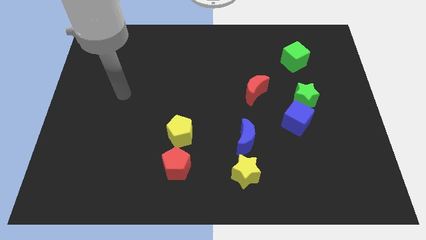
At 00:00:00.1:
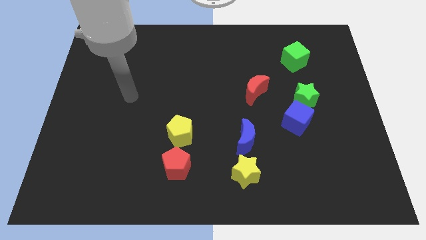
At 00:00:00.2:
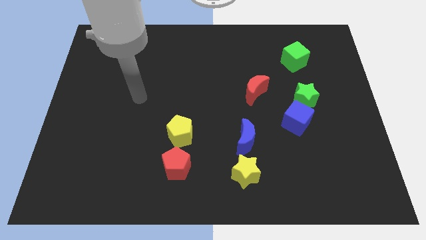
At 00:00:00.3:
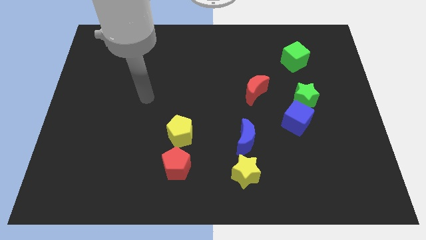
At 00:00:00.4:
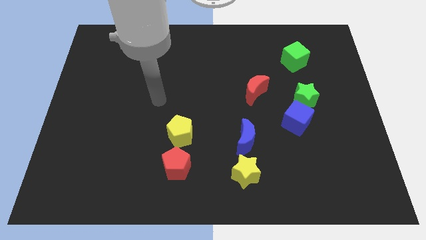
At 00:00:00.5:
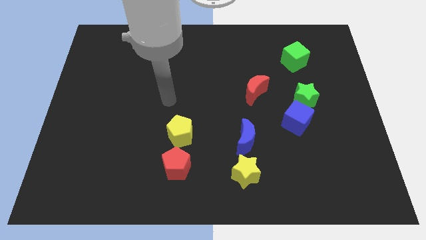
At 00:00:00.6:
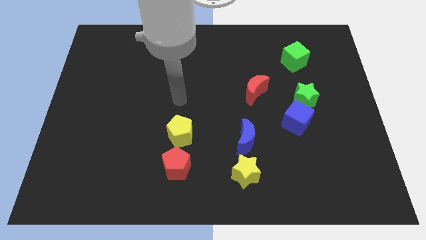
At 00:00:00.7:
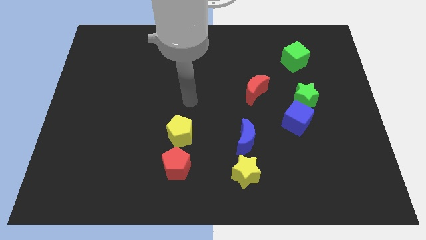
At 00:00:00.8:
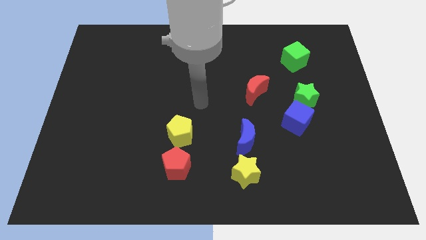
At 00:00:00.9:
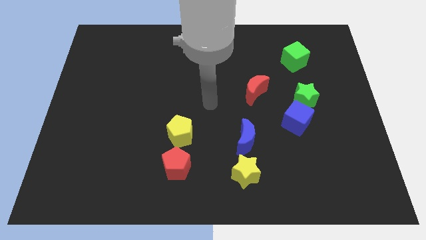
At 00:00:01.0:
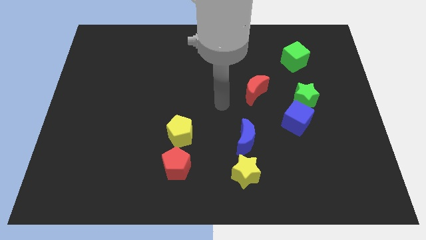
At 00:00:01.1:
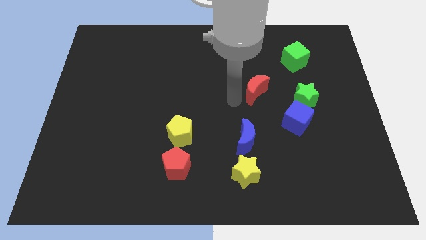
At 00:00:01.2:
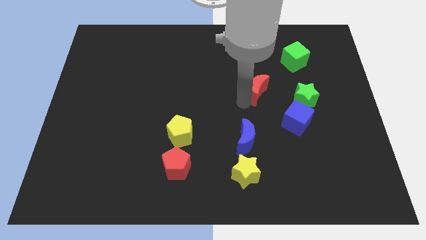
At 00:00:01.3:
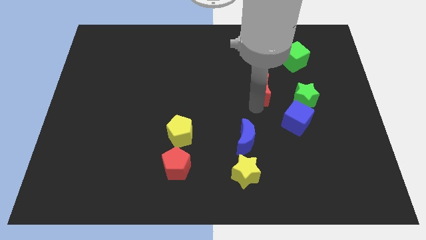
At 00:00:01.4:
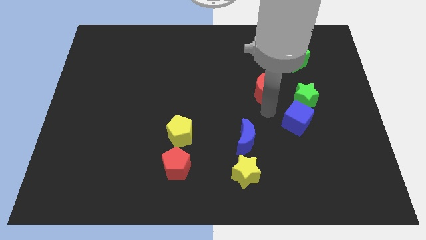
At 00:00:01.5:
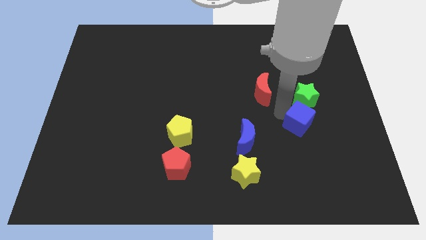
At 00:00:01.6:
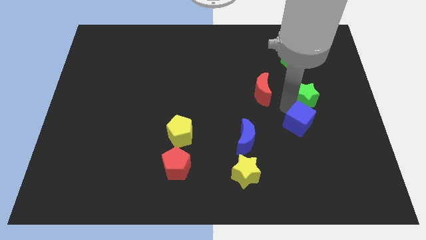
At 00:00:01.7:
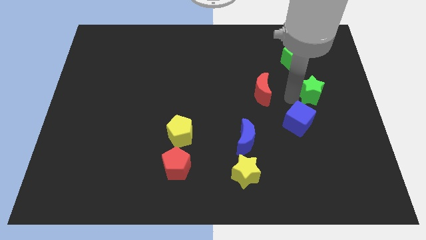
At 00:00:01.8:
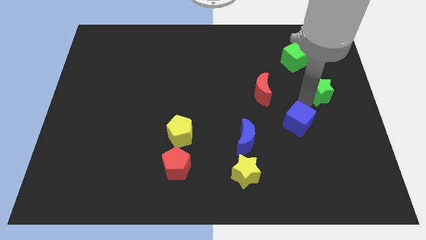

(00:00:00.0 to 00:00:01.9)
pull the blue cube apart from the green star

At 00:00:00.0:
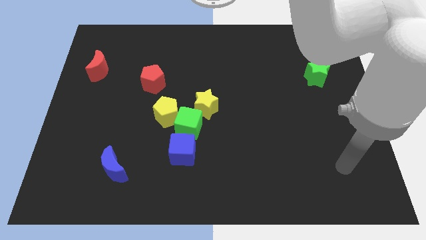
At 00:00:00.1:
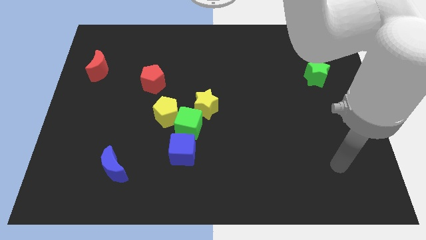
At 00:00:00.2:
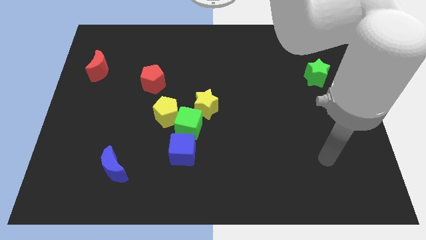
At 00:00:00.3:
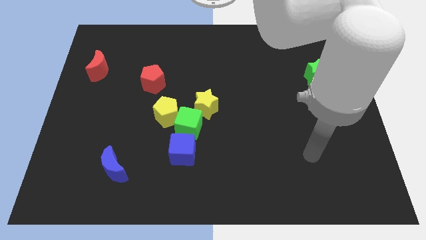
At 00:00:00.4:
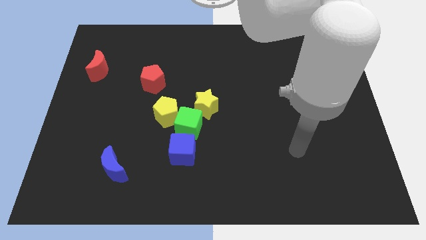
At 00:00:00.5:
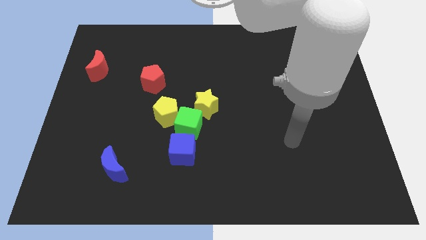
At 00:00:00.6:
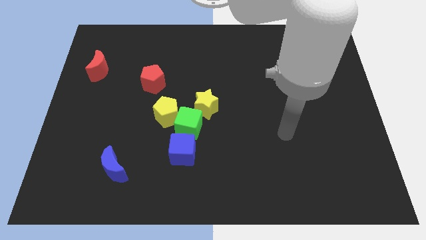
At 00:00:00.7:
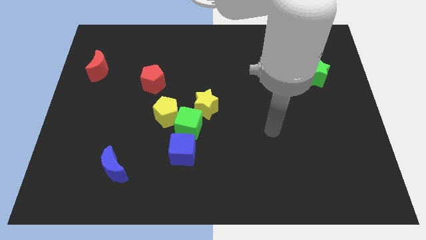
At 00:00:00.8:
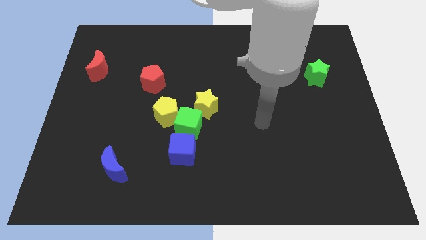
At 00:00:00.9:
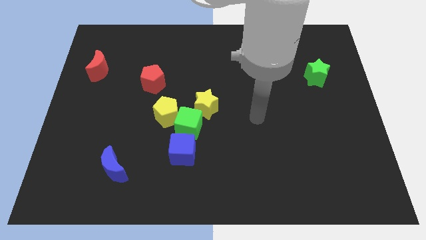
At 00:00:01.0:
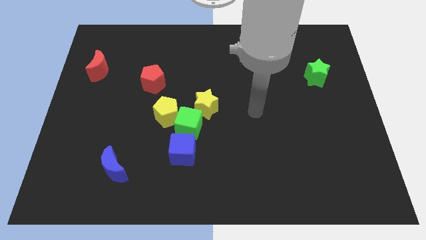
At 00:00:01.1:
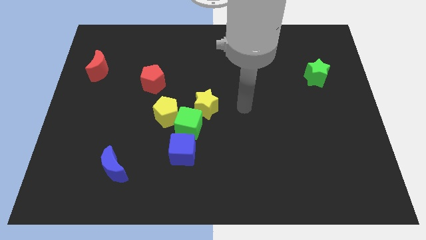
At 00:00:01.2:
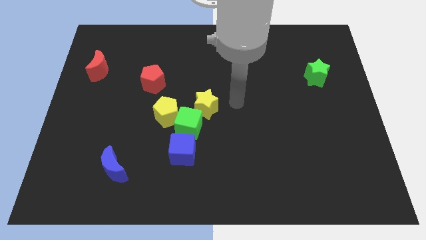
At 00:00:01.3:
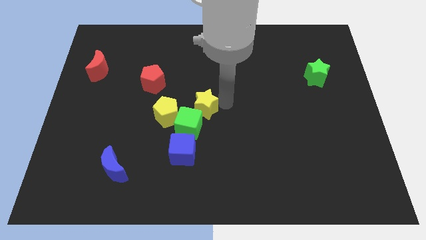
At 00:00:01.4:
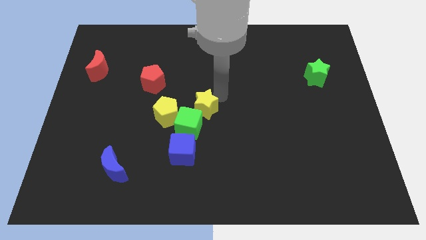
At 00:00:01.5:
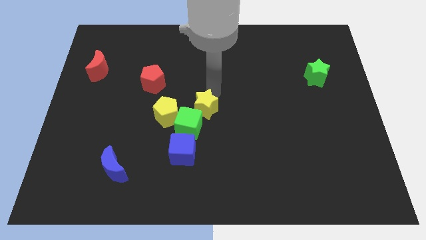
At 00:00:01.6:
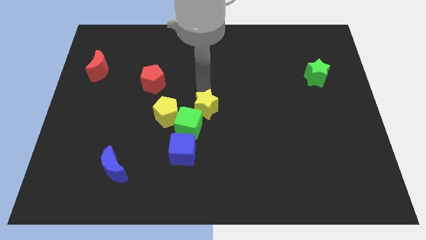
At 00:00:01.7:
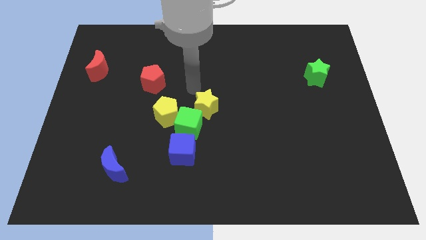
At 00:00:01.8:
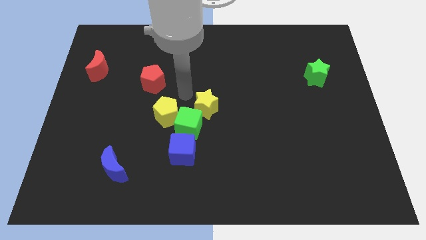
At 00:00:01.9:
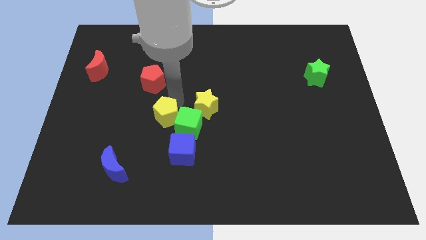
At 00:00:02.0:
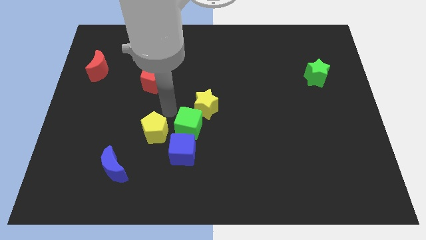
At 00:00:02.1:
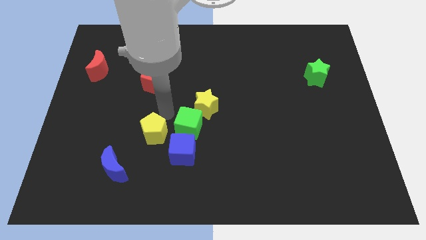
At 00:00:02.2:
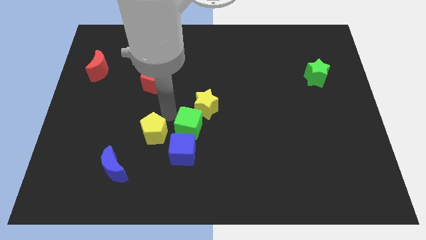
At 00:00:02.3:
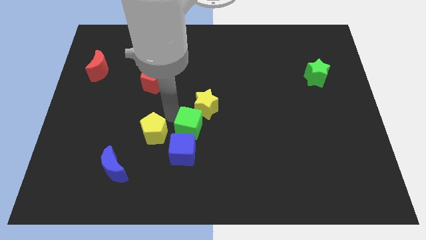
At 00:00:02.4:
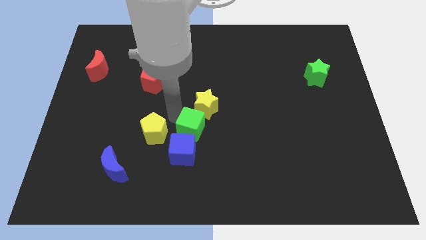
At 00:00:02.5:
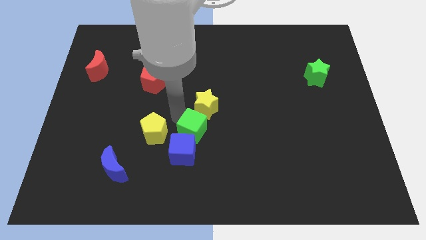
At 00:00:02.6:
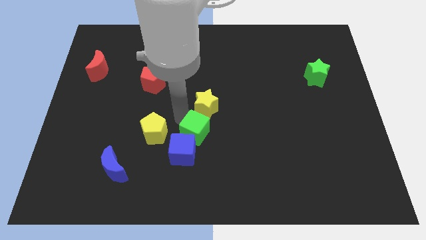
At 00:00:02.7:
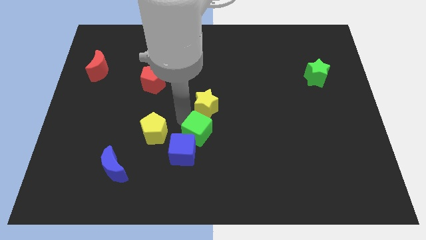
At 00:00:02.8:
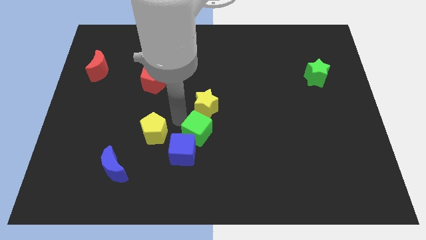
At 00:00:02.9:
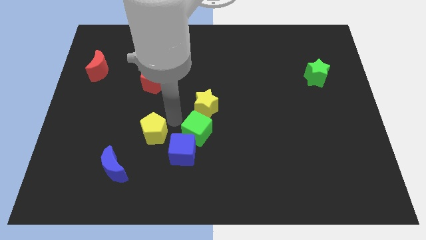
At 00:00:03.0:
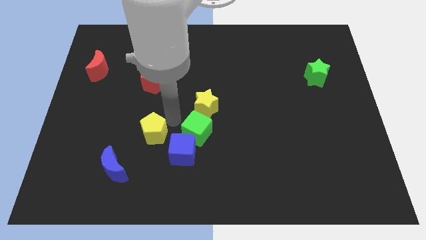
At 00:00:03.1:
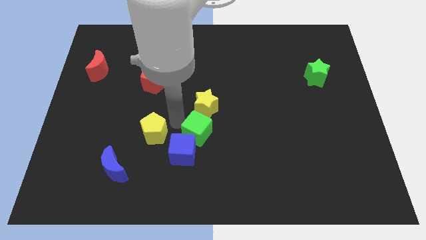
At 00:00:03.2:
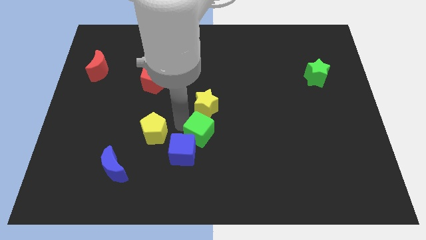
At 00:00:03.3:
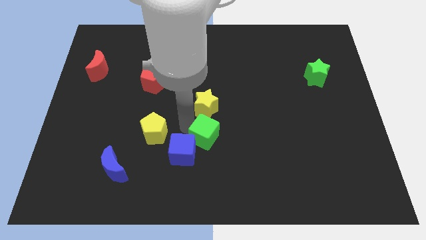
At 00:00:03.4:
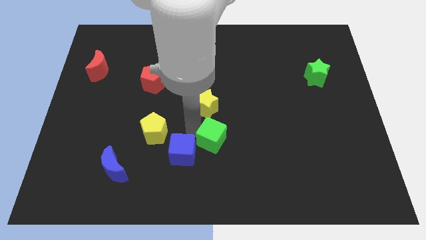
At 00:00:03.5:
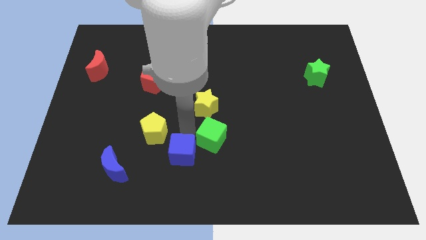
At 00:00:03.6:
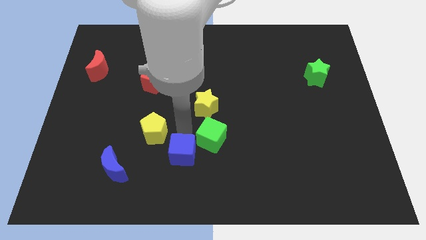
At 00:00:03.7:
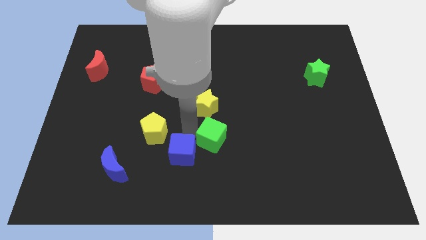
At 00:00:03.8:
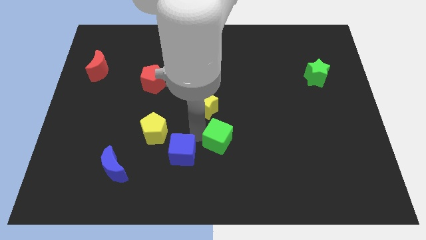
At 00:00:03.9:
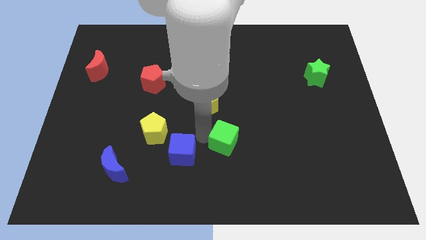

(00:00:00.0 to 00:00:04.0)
pull the green cube apart from the yellow pentagon, yellow star, and blue cube

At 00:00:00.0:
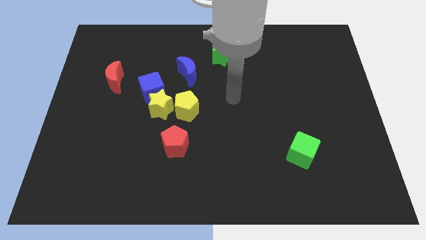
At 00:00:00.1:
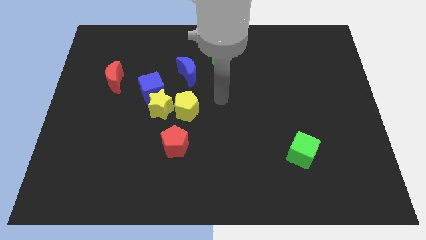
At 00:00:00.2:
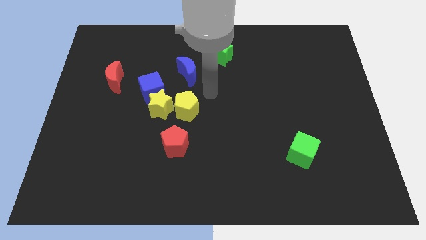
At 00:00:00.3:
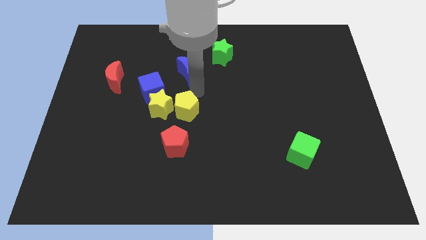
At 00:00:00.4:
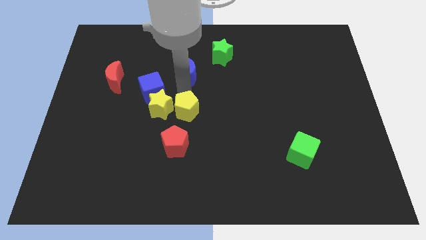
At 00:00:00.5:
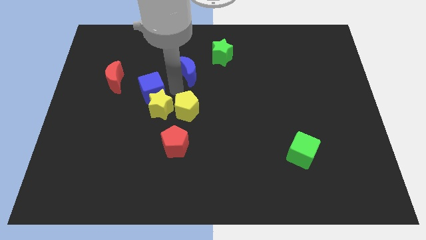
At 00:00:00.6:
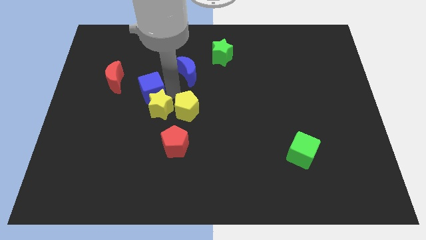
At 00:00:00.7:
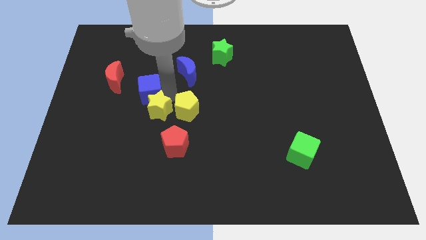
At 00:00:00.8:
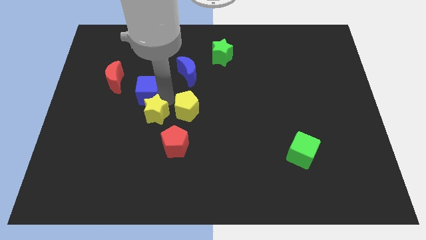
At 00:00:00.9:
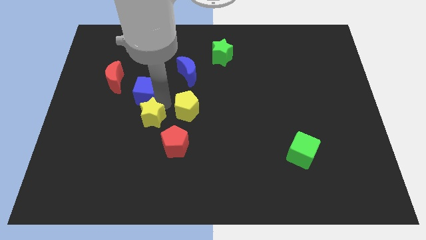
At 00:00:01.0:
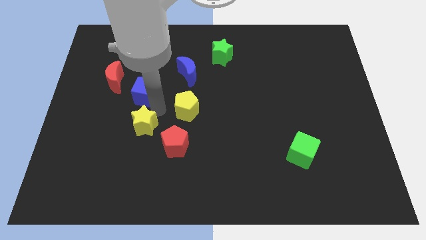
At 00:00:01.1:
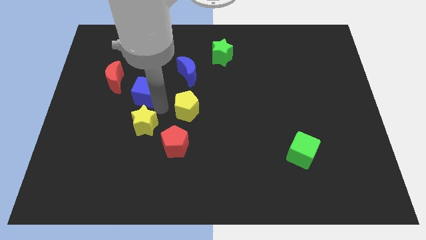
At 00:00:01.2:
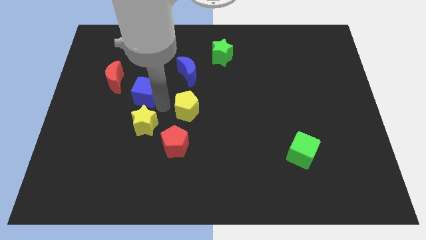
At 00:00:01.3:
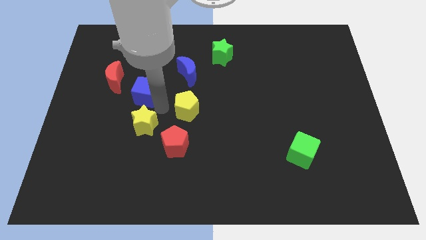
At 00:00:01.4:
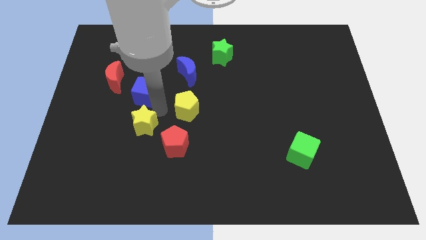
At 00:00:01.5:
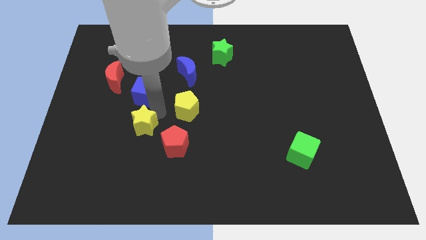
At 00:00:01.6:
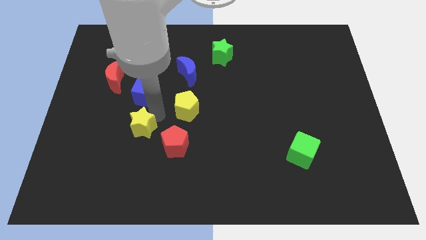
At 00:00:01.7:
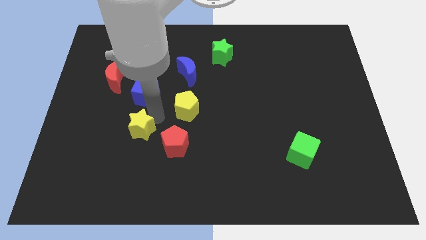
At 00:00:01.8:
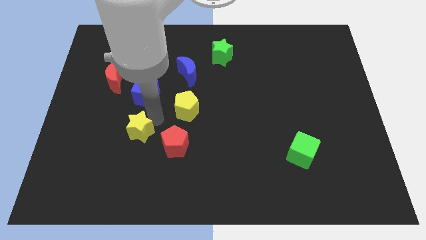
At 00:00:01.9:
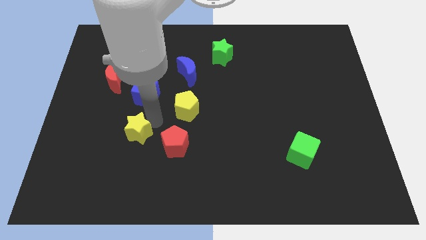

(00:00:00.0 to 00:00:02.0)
pull the yellow star apart from the blue cube and yellow pentagon

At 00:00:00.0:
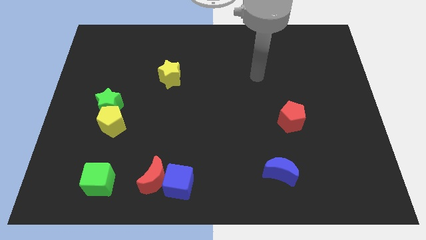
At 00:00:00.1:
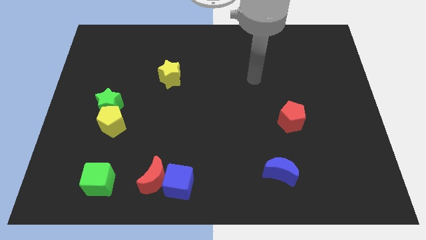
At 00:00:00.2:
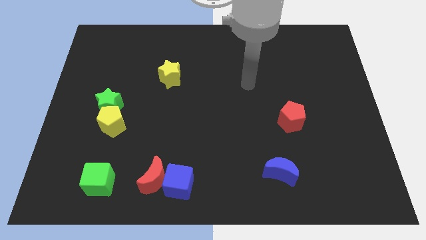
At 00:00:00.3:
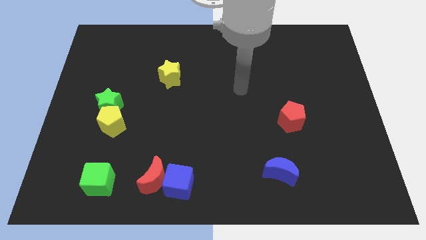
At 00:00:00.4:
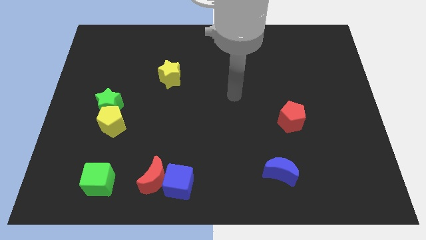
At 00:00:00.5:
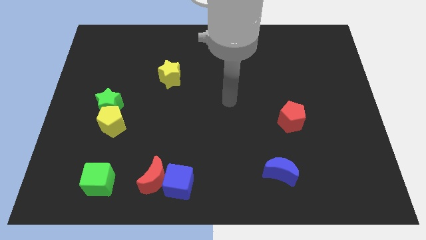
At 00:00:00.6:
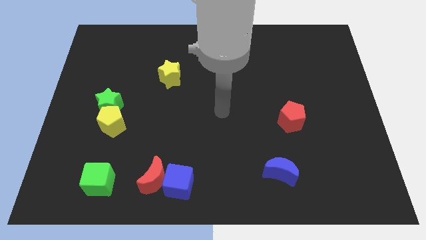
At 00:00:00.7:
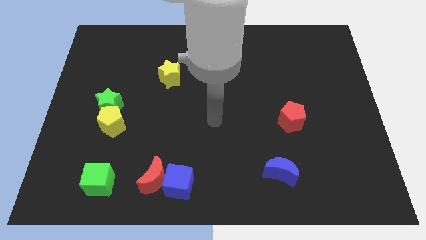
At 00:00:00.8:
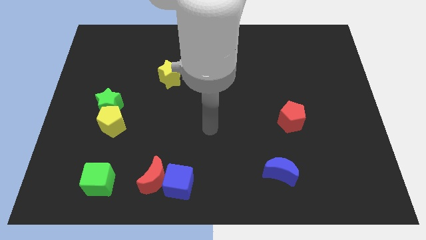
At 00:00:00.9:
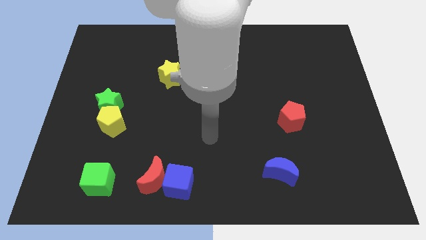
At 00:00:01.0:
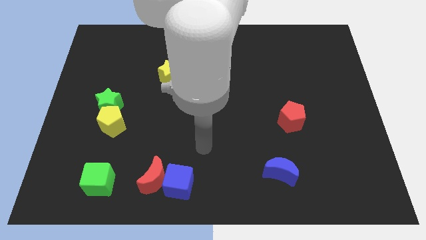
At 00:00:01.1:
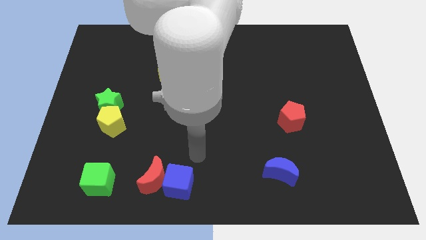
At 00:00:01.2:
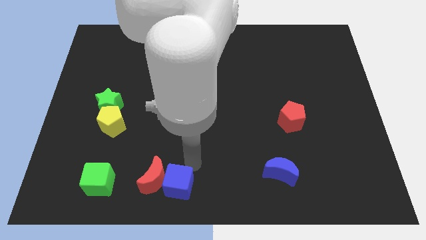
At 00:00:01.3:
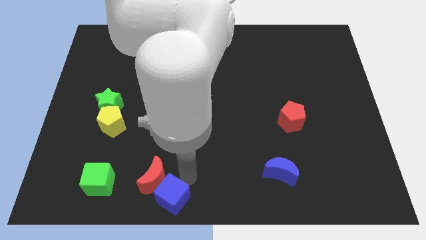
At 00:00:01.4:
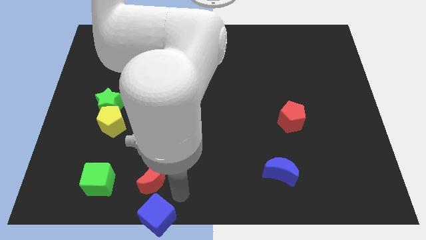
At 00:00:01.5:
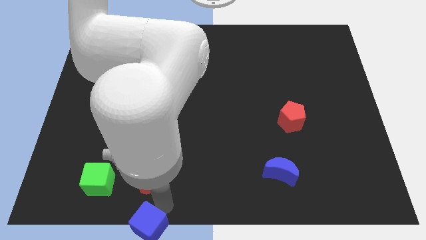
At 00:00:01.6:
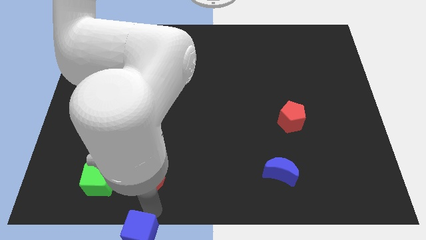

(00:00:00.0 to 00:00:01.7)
move the red moon away from the blue cube
